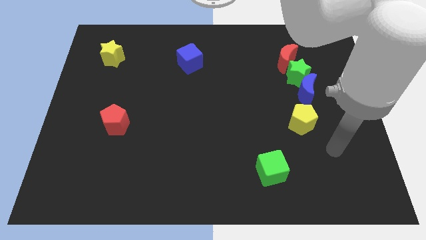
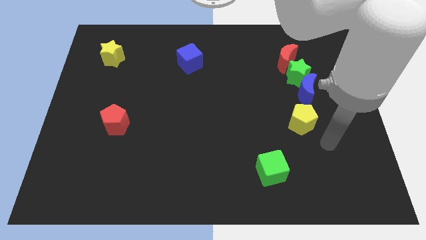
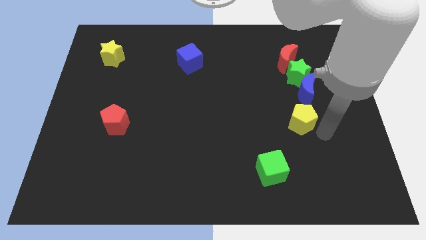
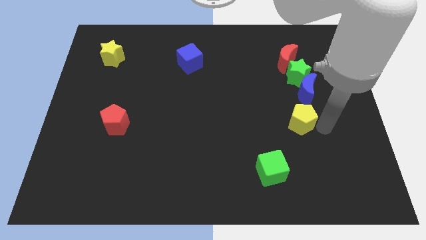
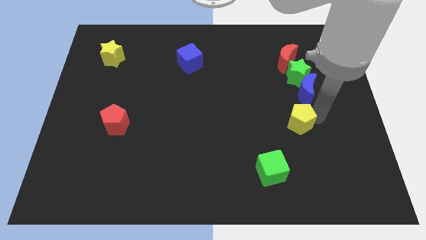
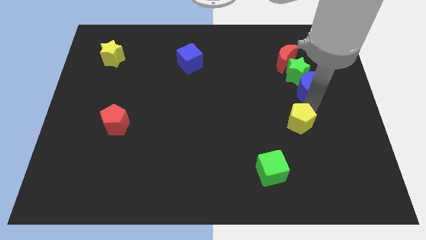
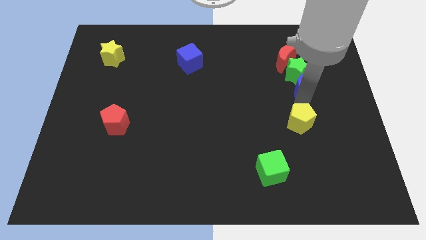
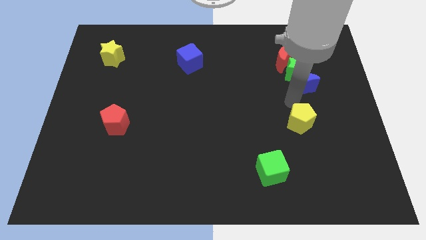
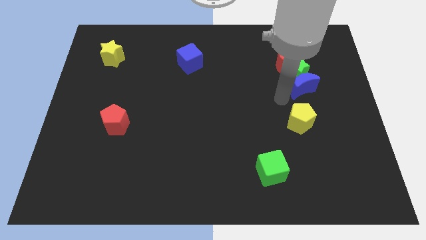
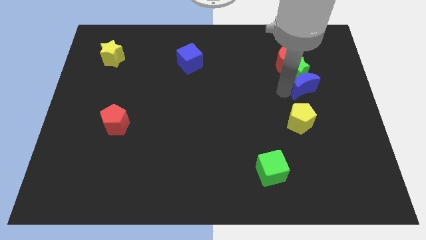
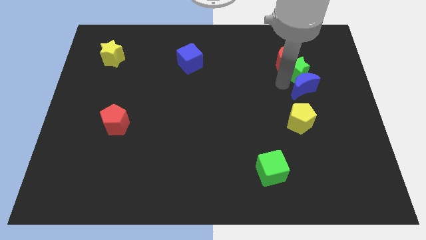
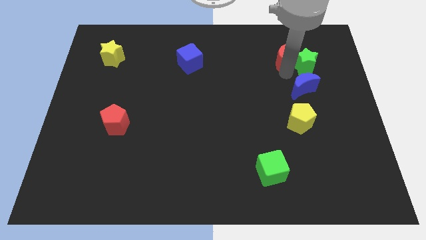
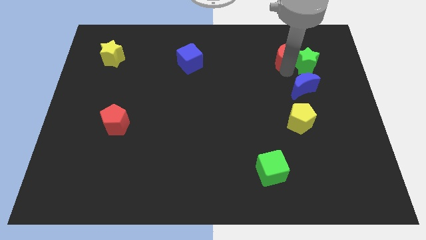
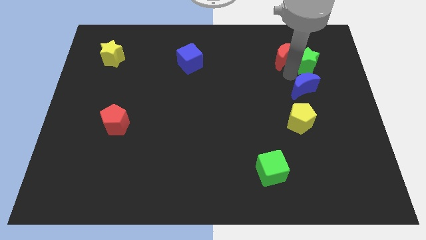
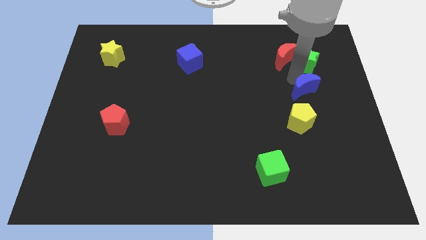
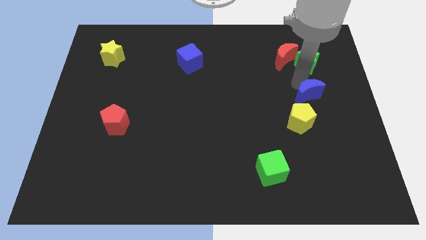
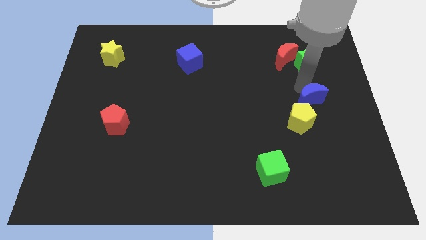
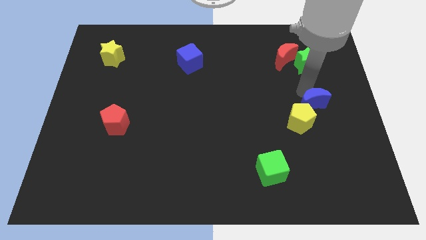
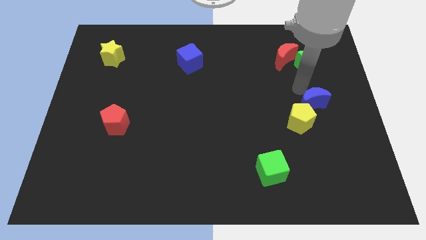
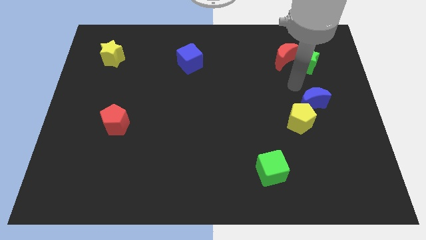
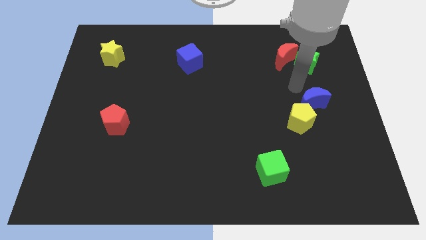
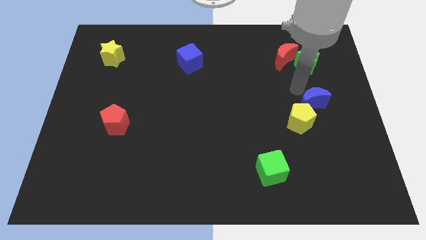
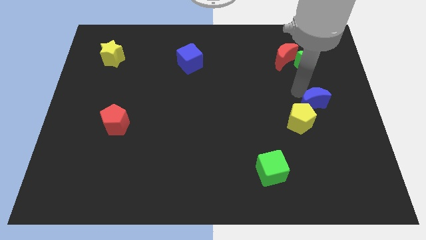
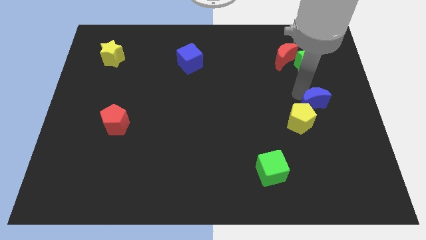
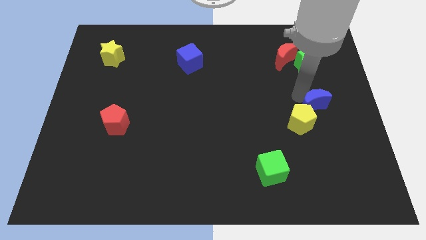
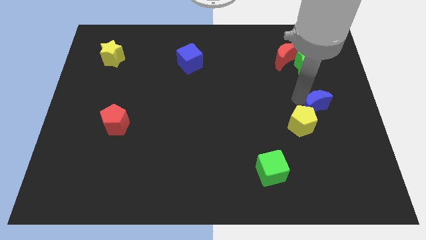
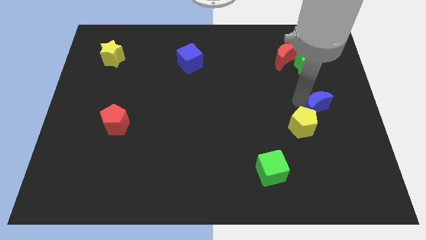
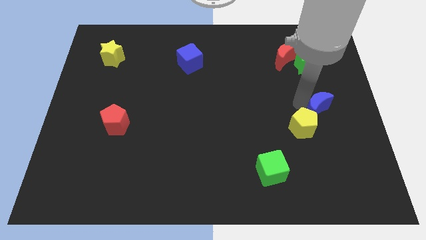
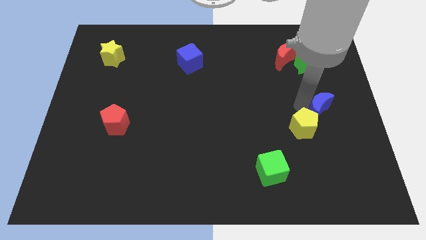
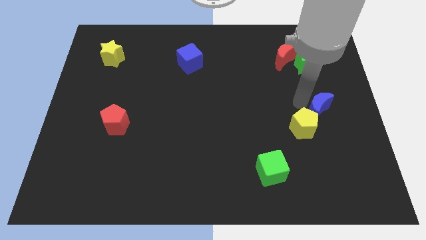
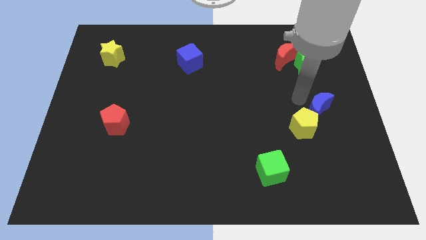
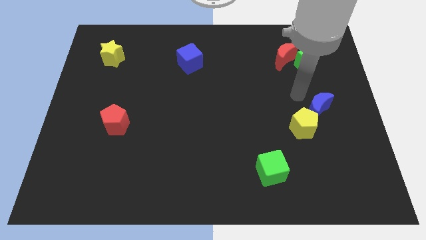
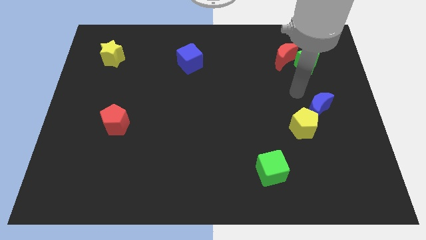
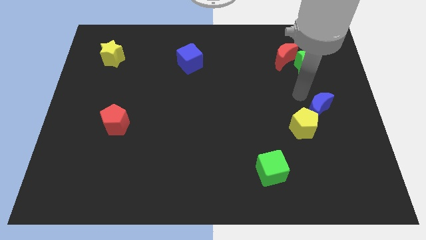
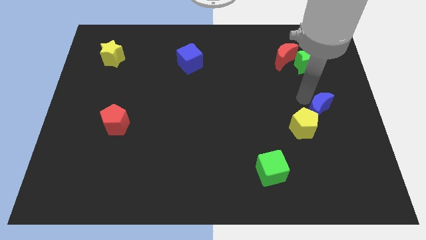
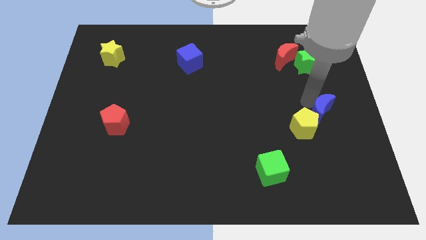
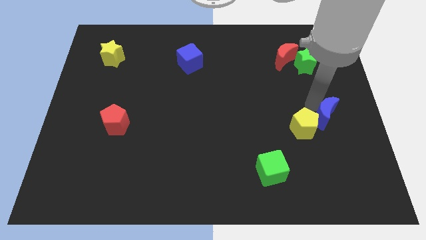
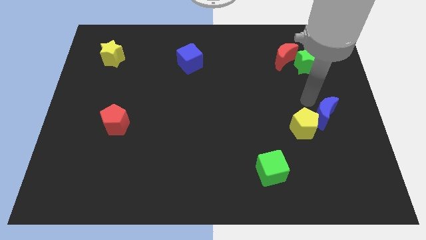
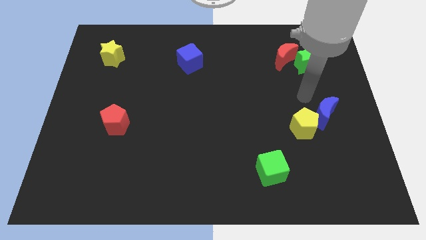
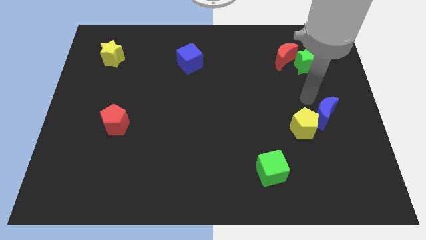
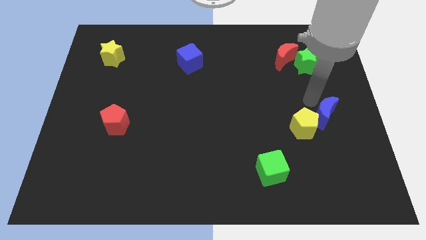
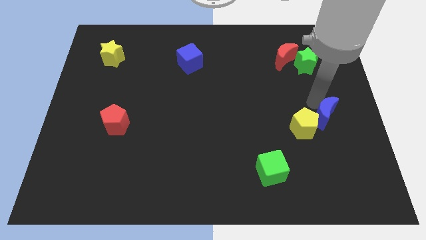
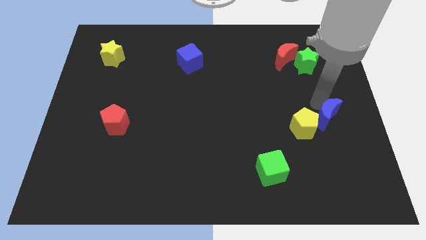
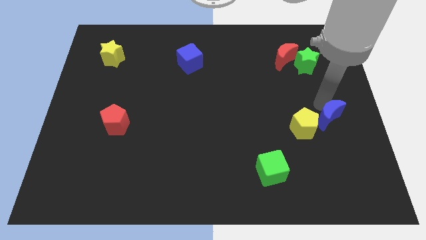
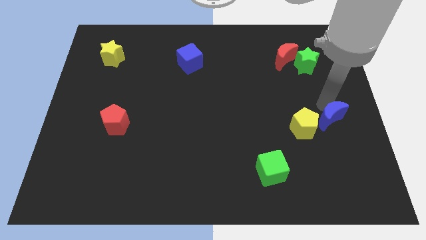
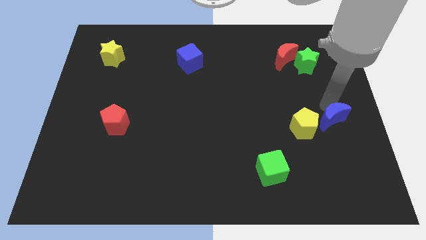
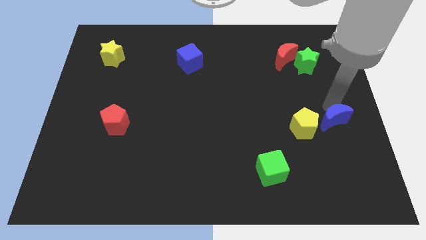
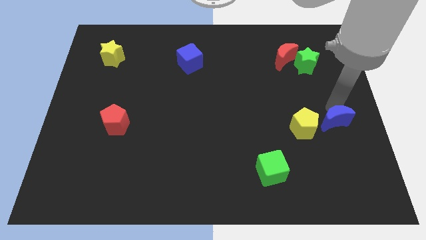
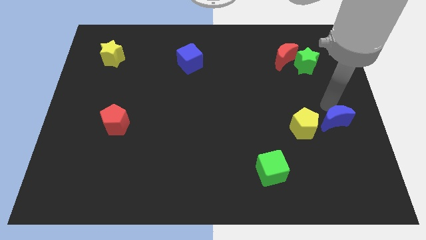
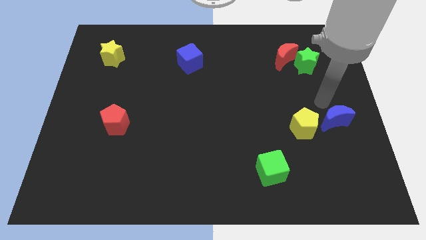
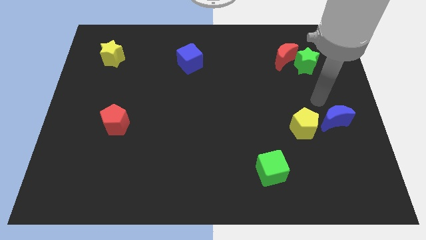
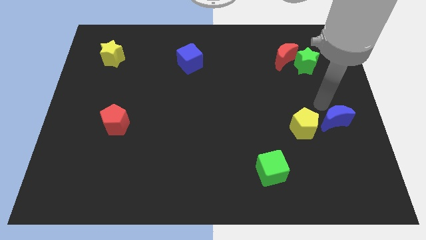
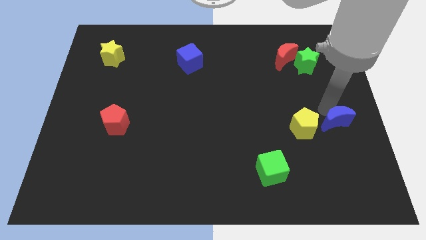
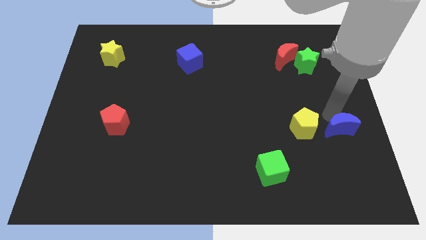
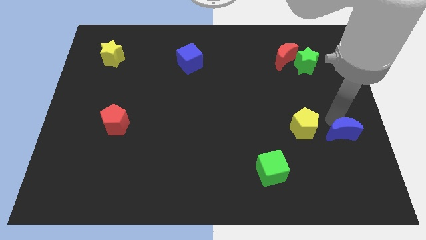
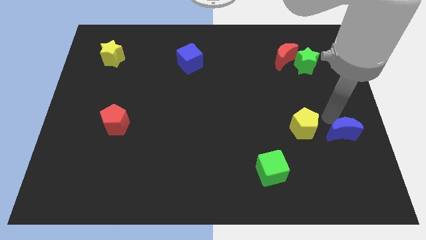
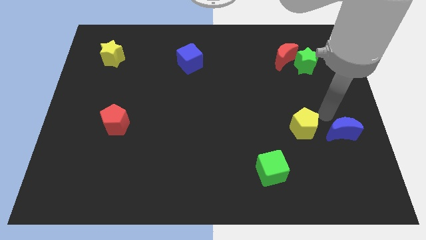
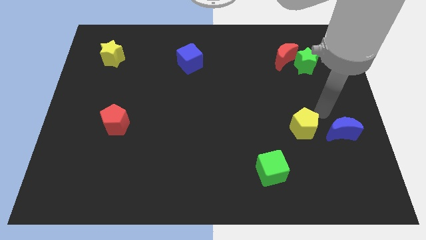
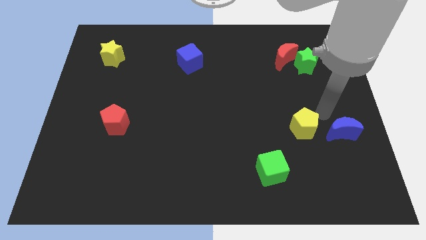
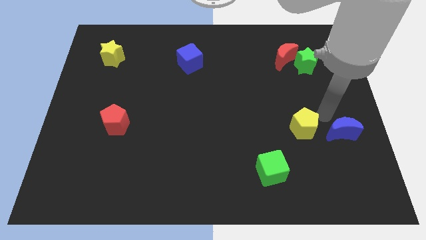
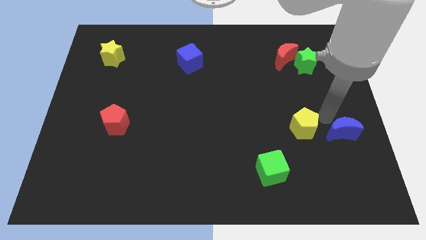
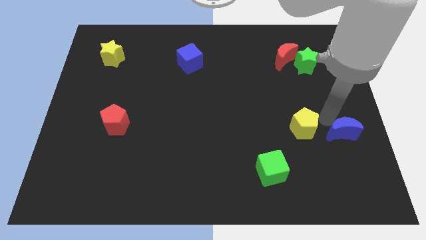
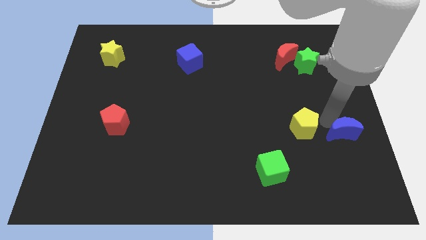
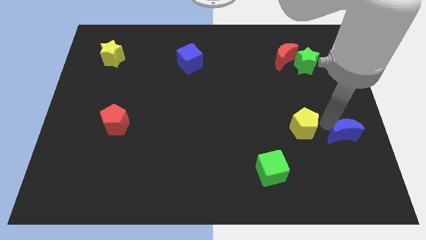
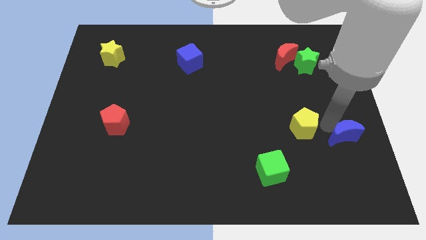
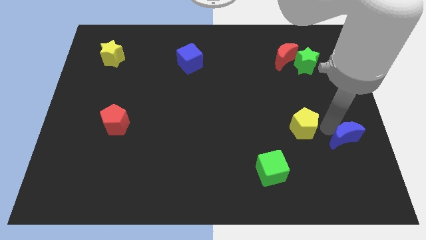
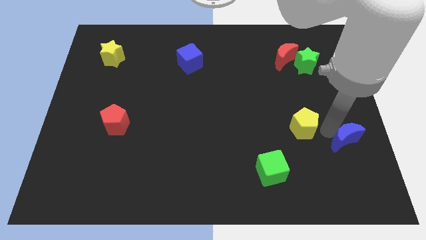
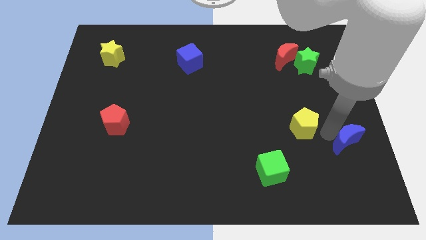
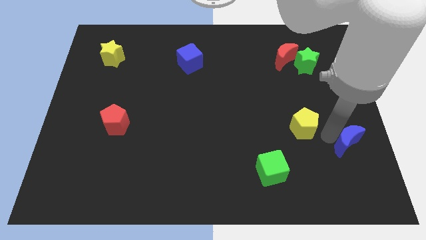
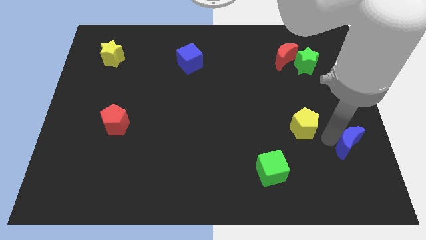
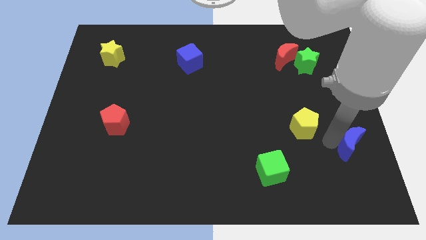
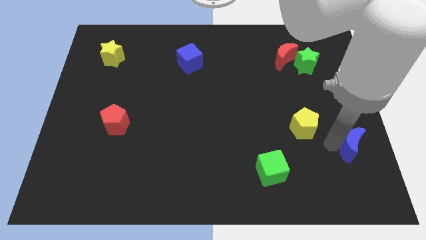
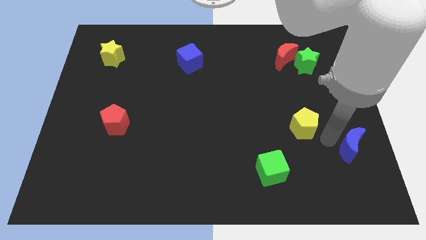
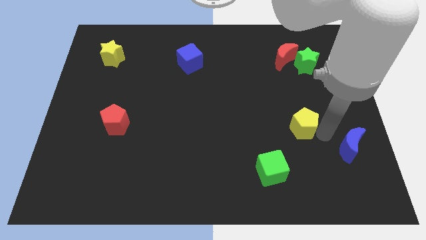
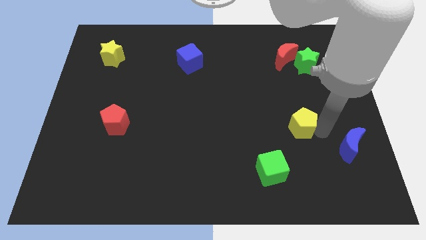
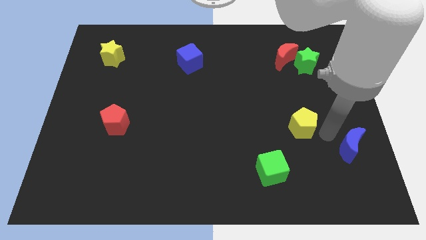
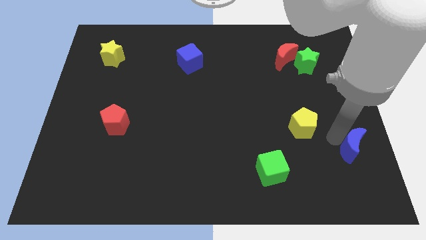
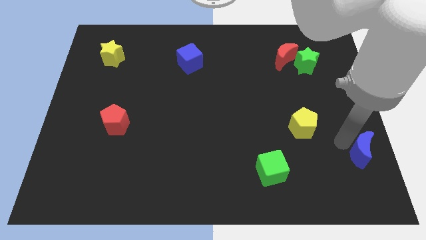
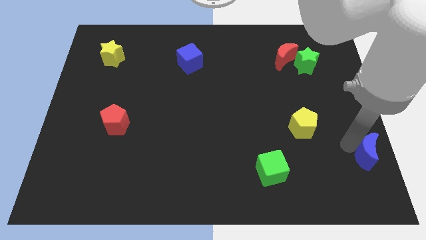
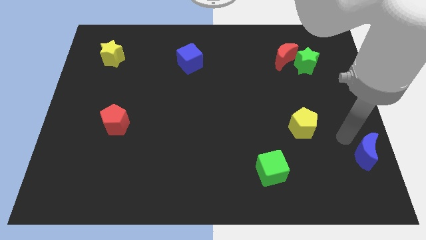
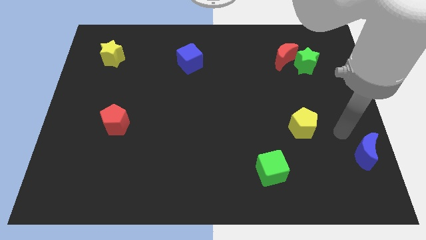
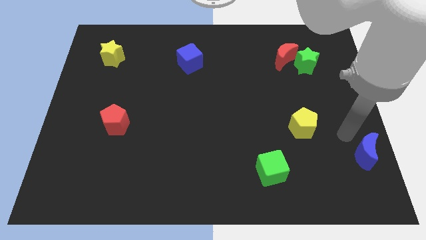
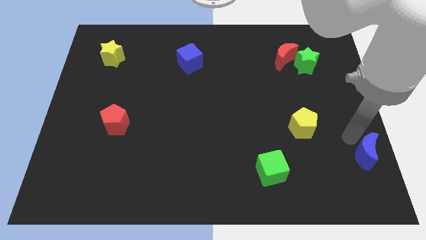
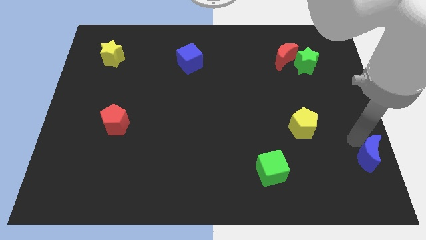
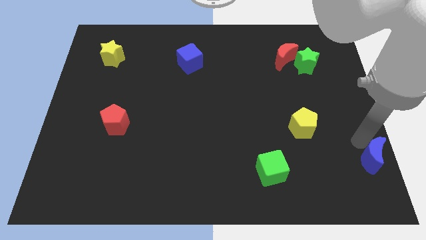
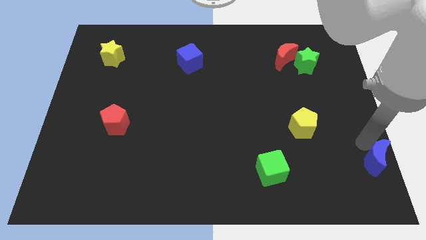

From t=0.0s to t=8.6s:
put the blue moon to the lower right corner
